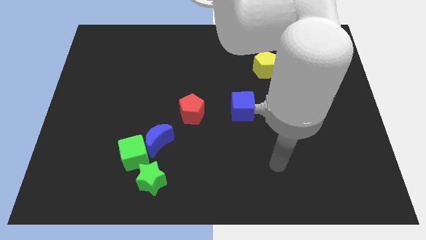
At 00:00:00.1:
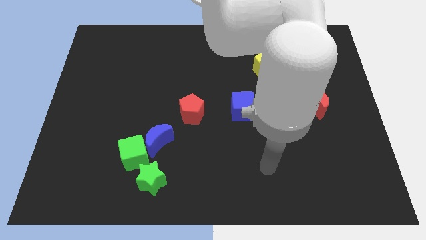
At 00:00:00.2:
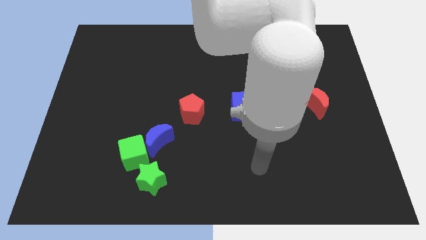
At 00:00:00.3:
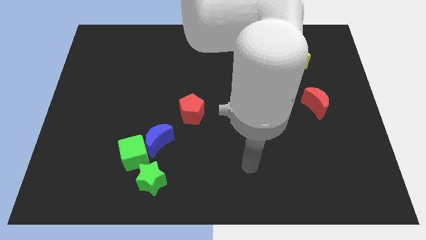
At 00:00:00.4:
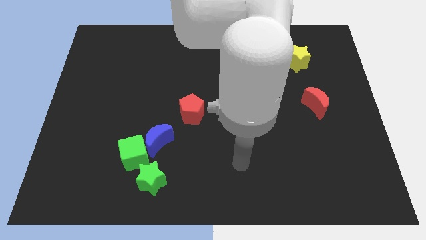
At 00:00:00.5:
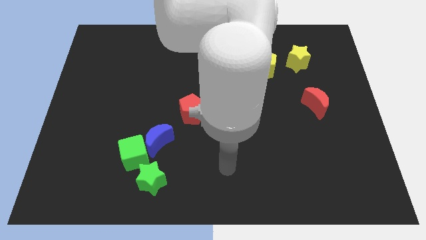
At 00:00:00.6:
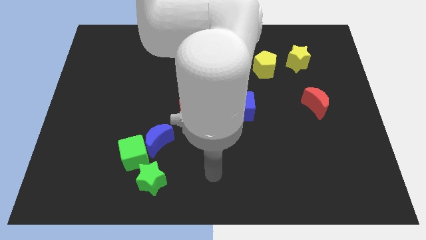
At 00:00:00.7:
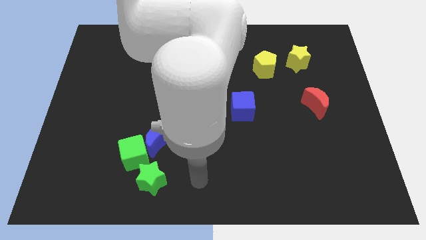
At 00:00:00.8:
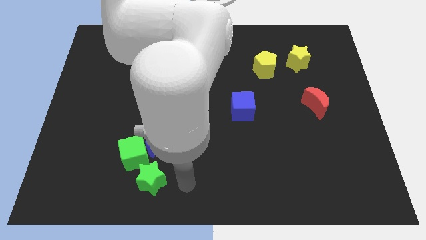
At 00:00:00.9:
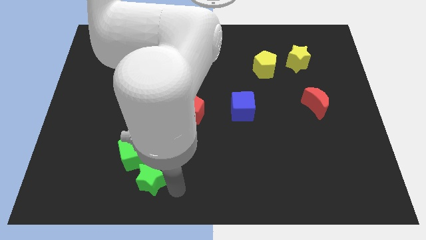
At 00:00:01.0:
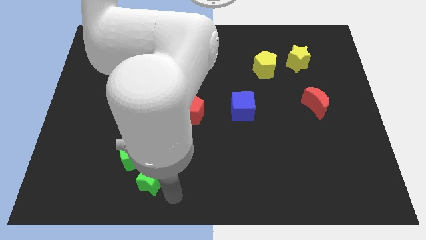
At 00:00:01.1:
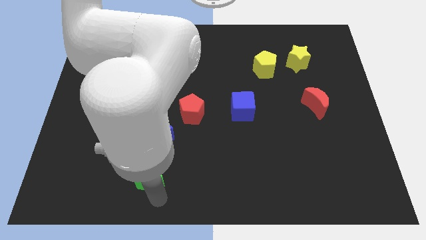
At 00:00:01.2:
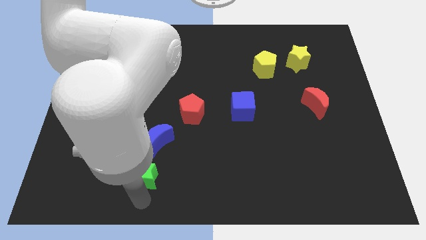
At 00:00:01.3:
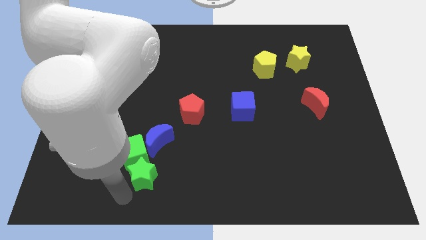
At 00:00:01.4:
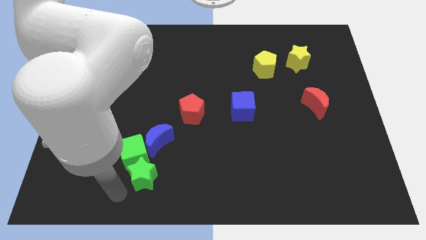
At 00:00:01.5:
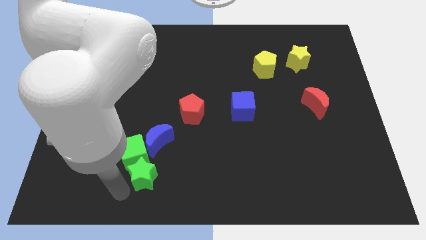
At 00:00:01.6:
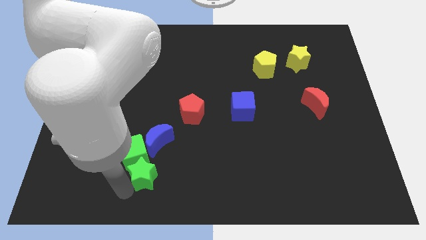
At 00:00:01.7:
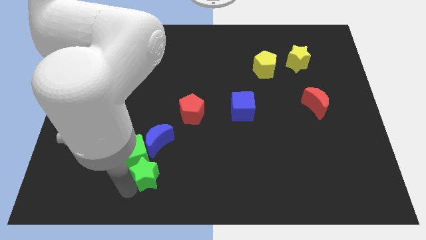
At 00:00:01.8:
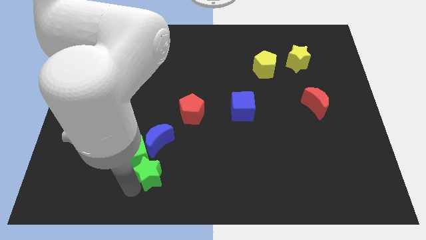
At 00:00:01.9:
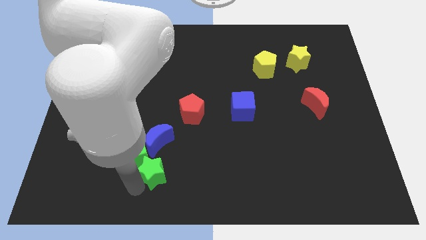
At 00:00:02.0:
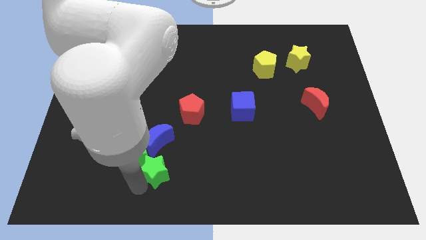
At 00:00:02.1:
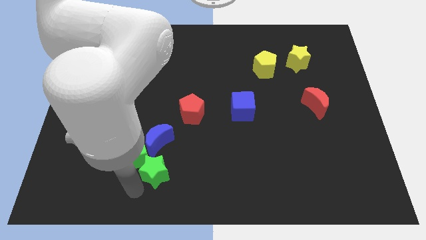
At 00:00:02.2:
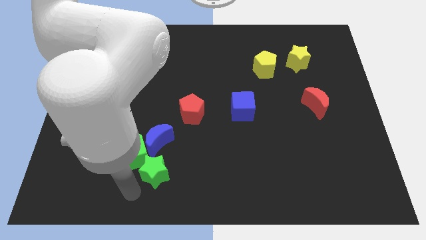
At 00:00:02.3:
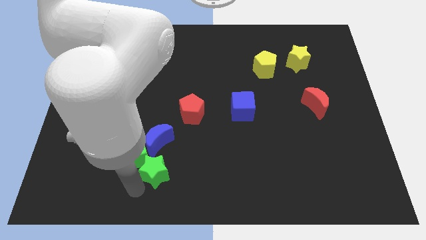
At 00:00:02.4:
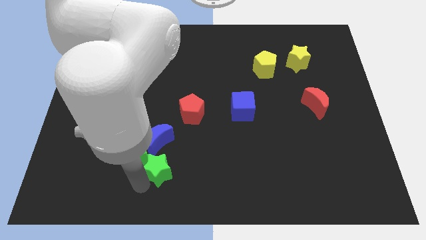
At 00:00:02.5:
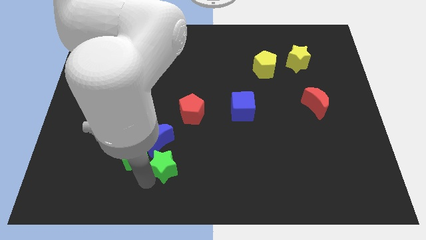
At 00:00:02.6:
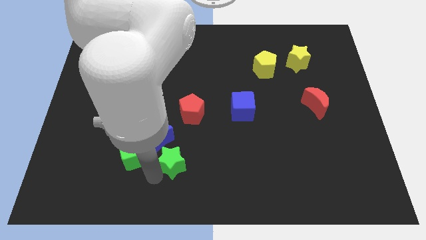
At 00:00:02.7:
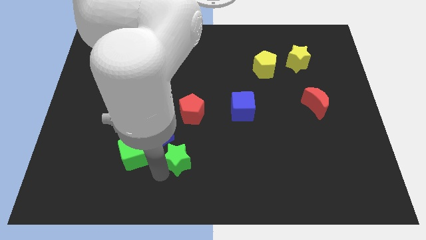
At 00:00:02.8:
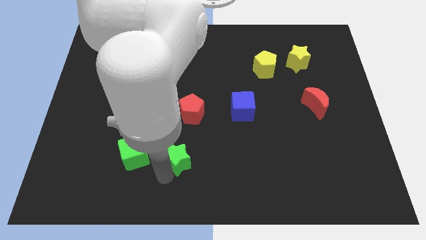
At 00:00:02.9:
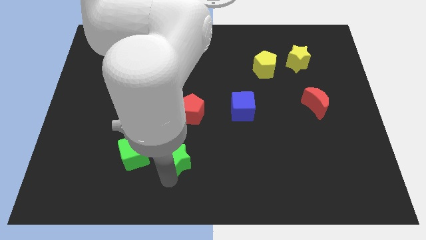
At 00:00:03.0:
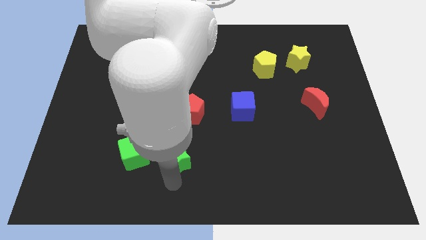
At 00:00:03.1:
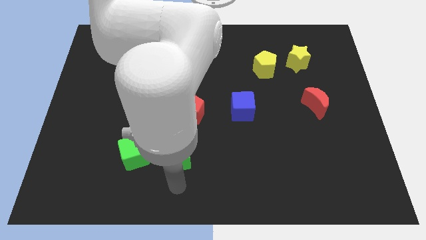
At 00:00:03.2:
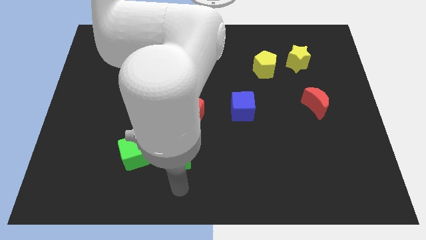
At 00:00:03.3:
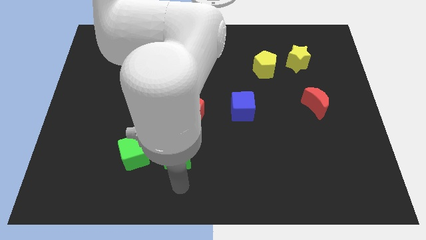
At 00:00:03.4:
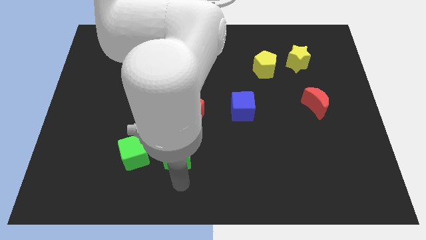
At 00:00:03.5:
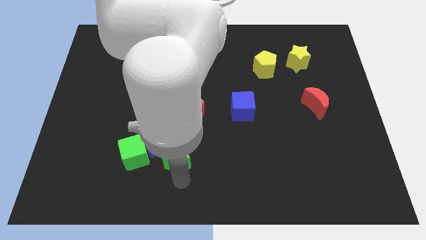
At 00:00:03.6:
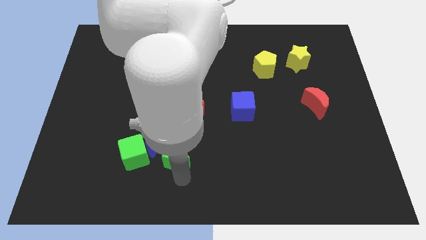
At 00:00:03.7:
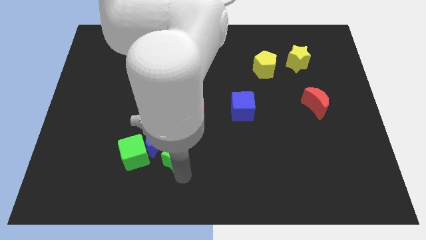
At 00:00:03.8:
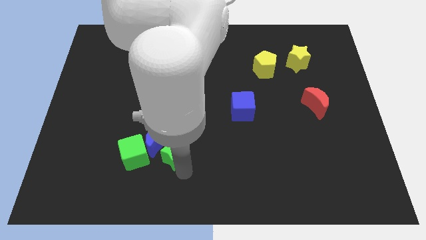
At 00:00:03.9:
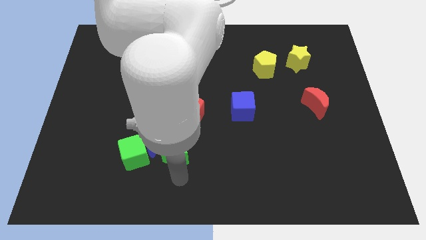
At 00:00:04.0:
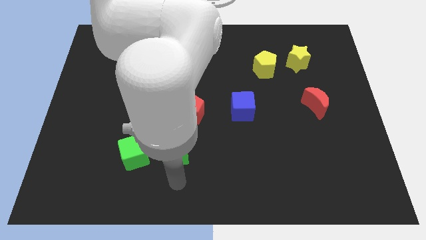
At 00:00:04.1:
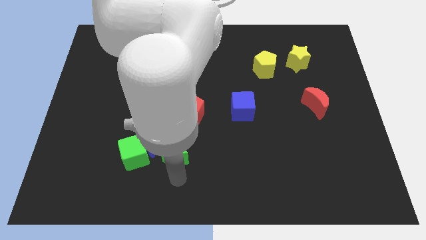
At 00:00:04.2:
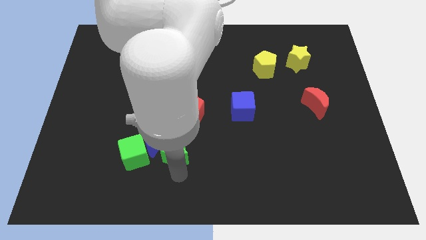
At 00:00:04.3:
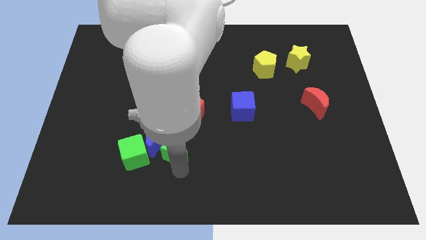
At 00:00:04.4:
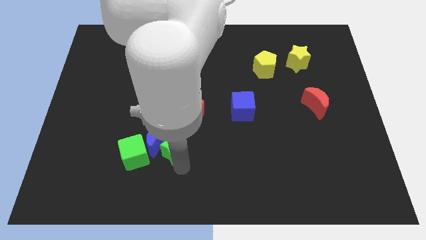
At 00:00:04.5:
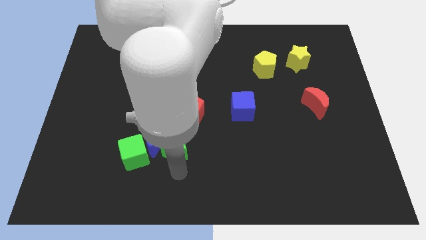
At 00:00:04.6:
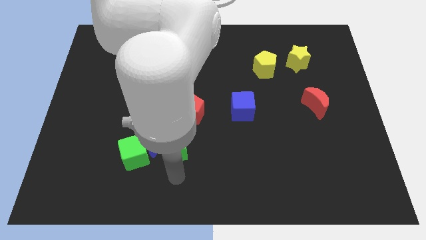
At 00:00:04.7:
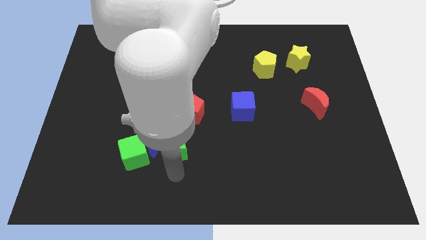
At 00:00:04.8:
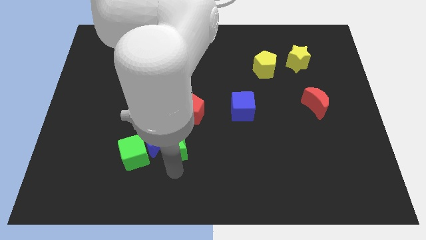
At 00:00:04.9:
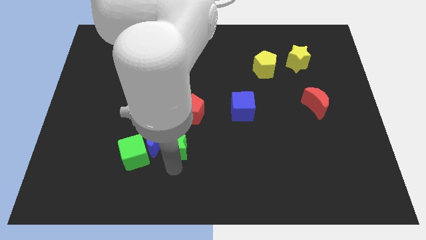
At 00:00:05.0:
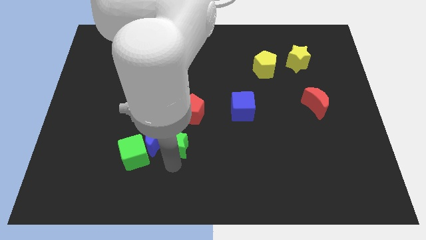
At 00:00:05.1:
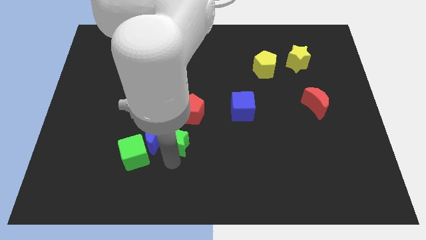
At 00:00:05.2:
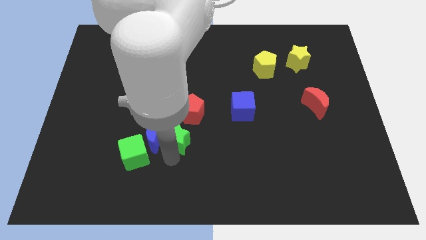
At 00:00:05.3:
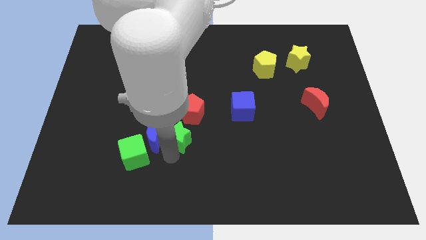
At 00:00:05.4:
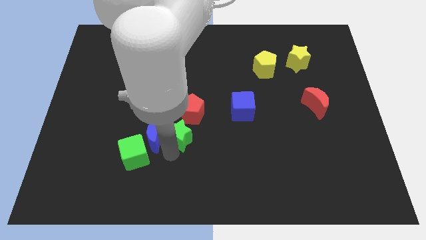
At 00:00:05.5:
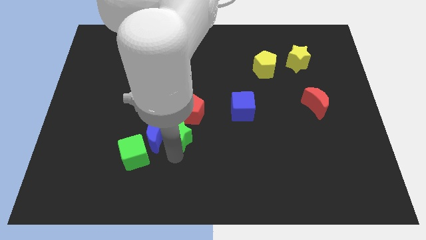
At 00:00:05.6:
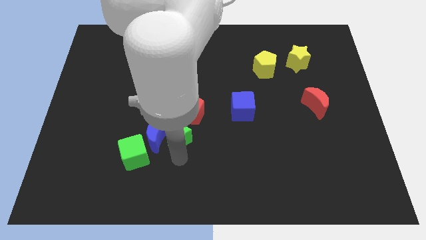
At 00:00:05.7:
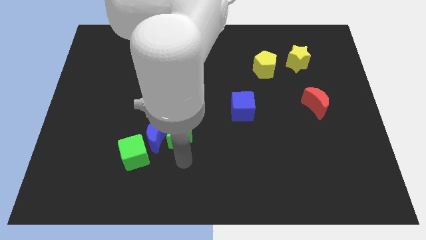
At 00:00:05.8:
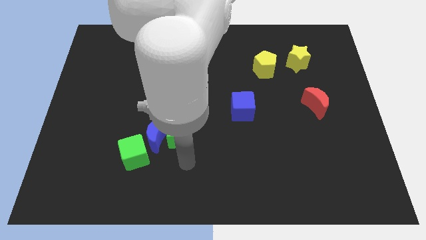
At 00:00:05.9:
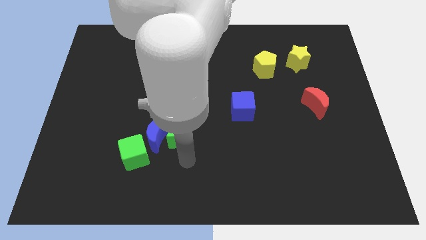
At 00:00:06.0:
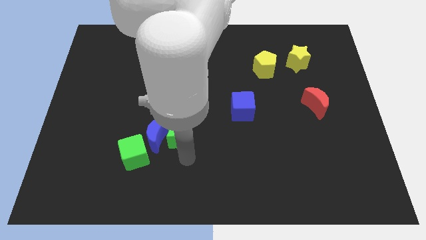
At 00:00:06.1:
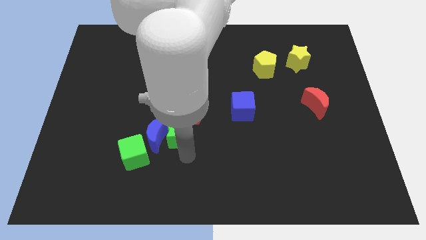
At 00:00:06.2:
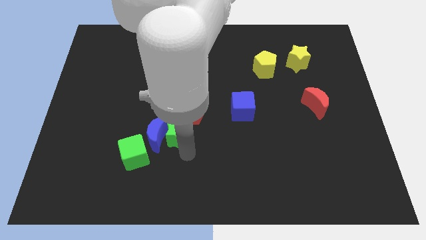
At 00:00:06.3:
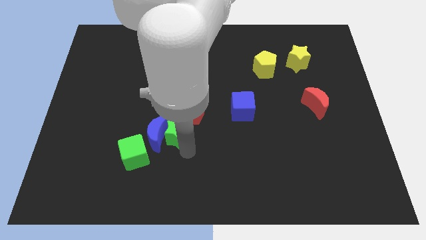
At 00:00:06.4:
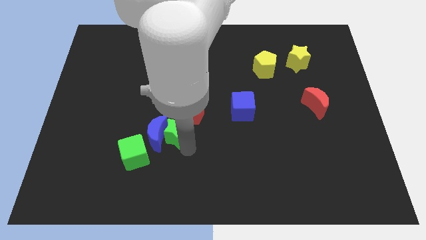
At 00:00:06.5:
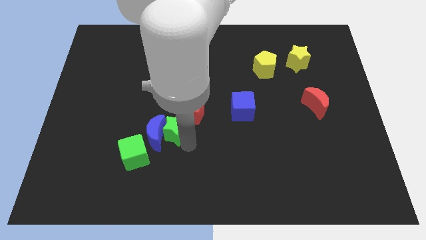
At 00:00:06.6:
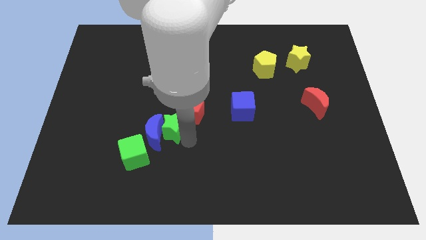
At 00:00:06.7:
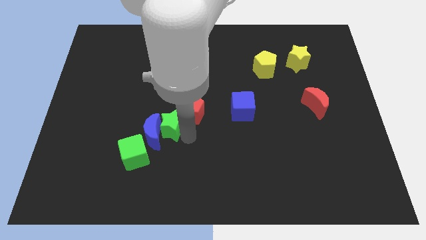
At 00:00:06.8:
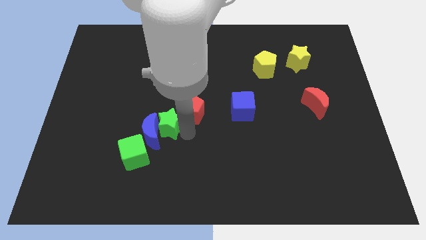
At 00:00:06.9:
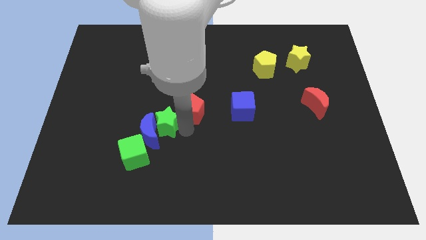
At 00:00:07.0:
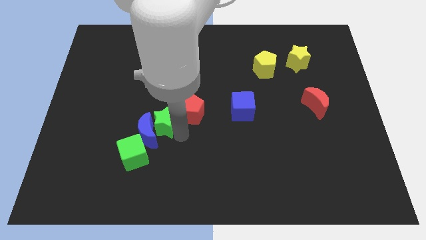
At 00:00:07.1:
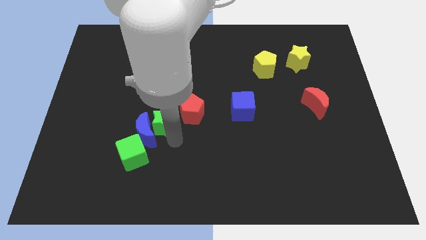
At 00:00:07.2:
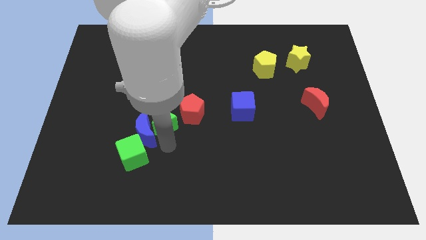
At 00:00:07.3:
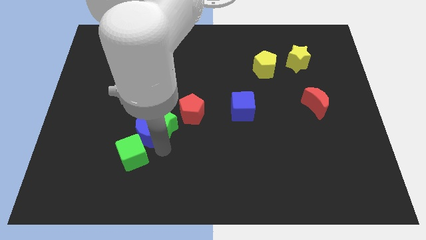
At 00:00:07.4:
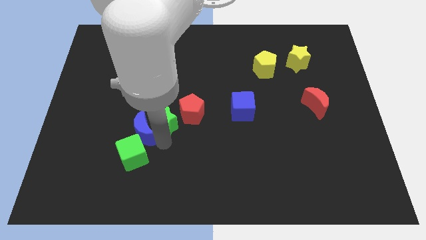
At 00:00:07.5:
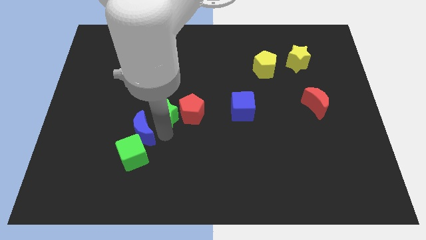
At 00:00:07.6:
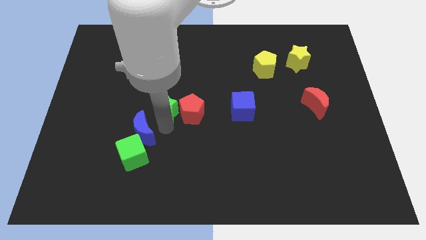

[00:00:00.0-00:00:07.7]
push the green star diagonally up and to the left of the red pentagon

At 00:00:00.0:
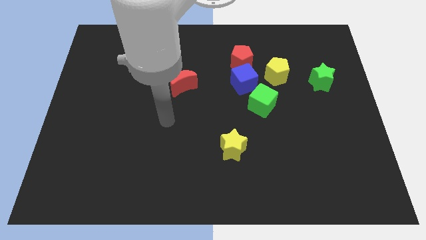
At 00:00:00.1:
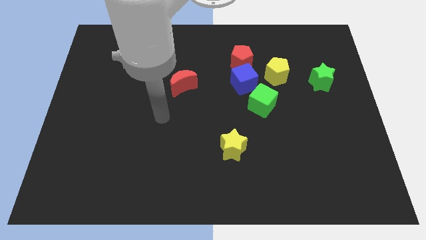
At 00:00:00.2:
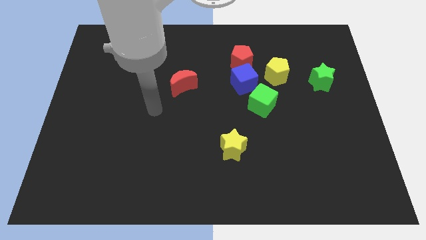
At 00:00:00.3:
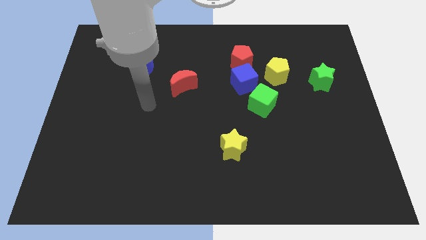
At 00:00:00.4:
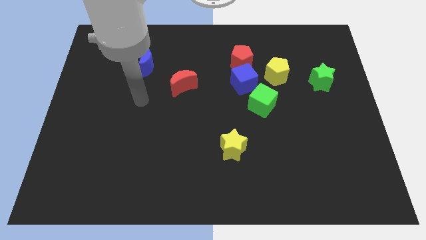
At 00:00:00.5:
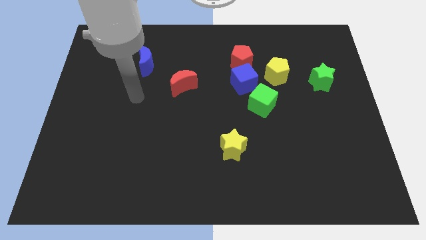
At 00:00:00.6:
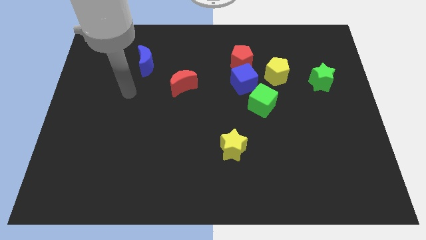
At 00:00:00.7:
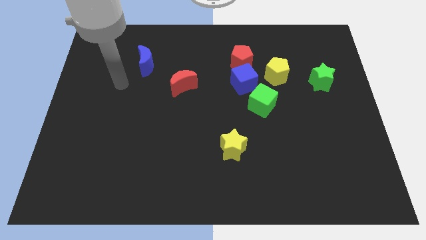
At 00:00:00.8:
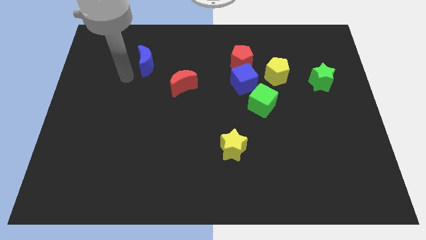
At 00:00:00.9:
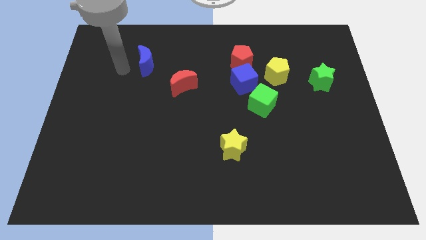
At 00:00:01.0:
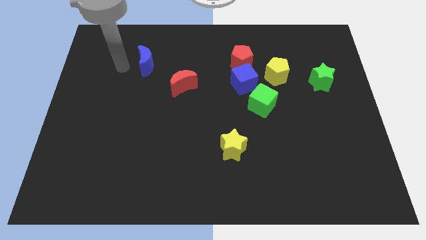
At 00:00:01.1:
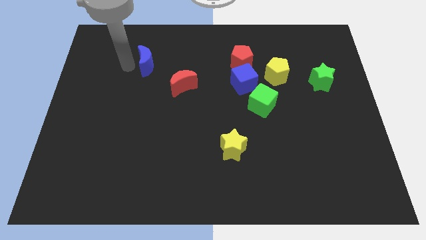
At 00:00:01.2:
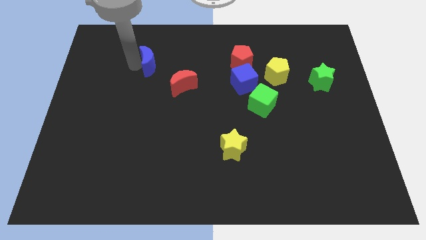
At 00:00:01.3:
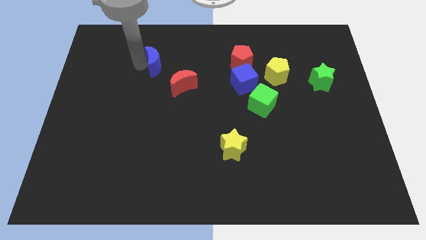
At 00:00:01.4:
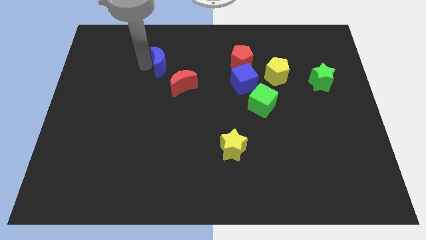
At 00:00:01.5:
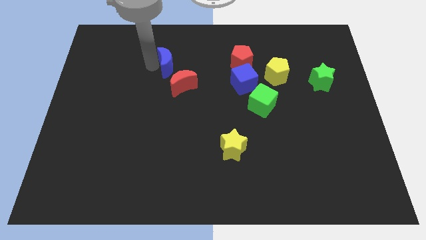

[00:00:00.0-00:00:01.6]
move the blue moon to the top side of the red moon
